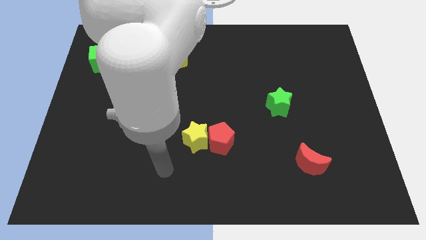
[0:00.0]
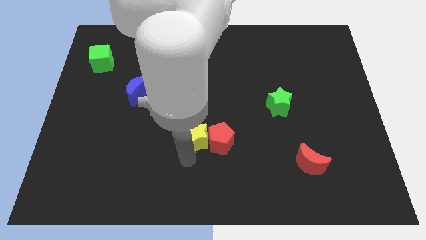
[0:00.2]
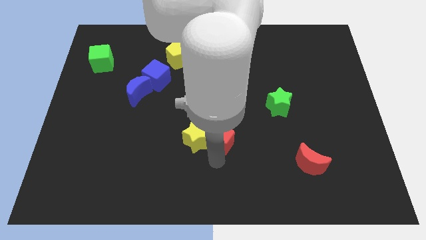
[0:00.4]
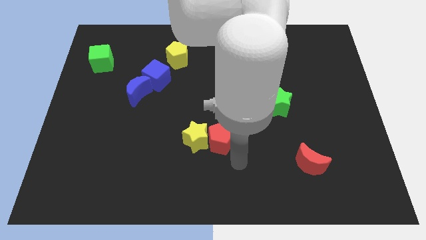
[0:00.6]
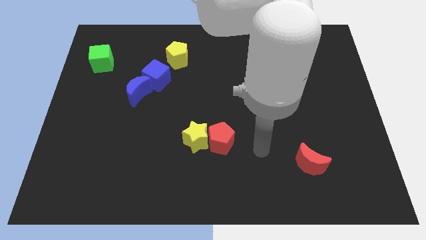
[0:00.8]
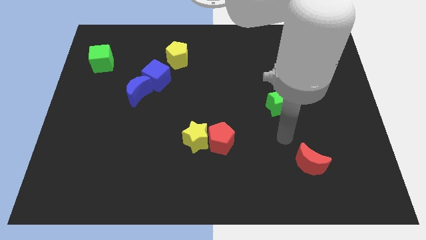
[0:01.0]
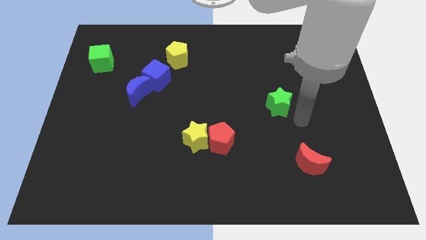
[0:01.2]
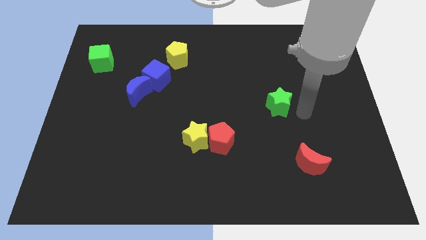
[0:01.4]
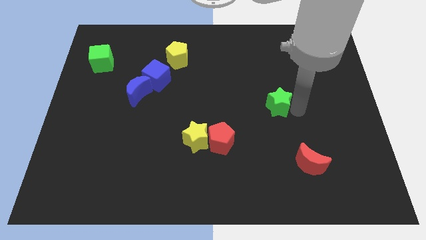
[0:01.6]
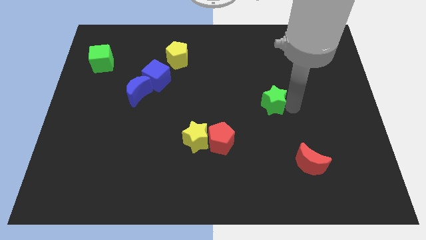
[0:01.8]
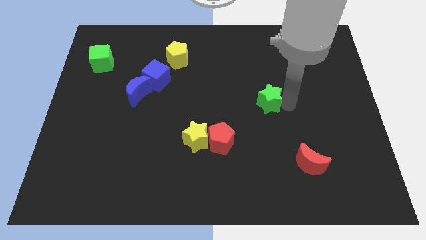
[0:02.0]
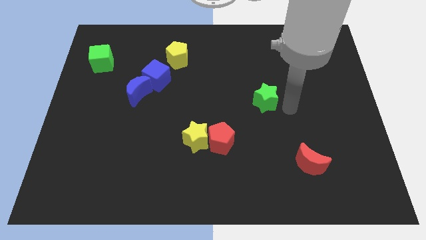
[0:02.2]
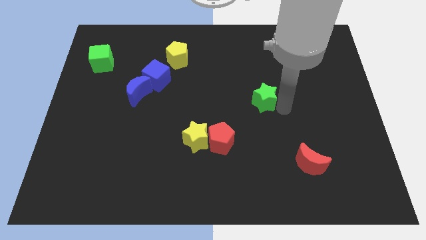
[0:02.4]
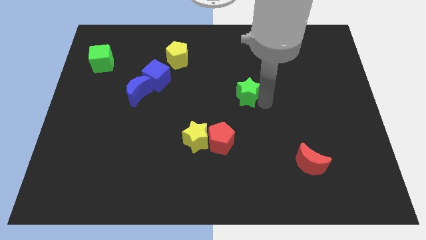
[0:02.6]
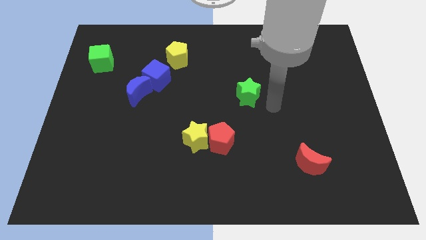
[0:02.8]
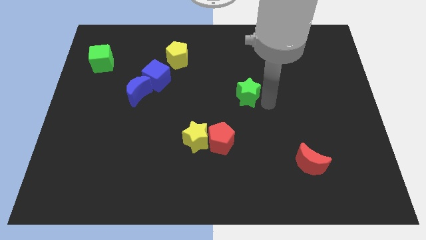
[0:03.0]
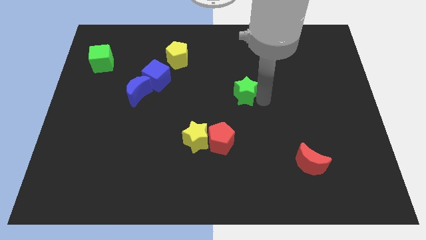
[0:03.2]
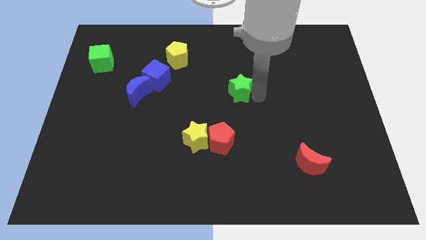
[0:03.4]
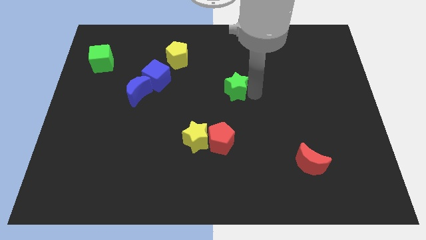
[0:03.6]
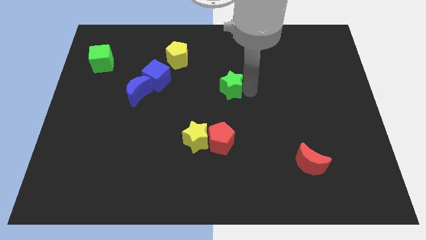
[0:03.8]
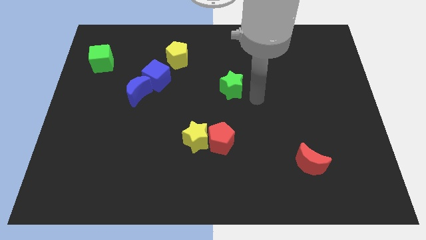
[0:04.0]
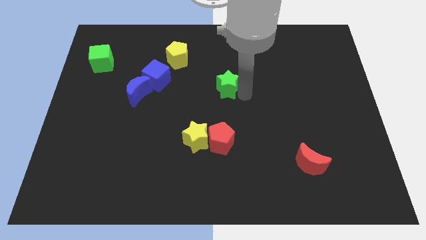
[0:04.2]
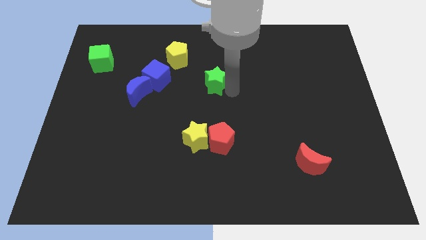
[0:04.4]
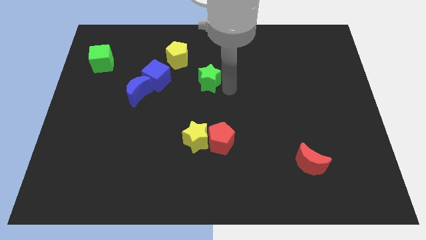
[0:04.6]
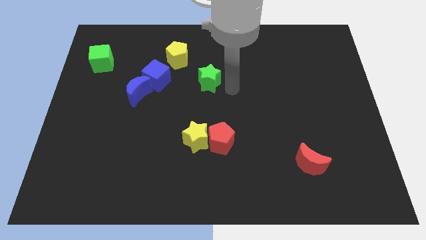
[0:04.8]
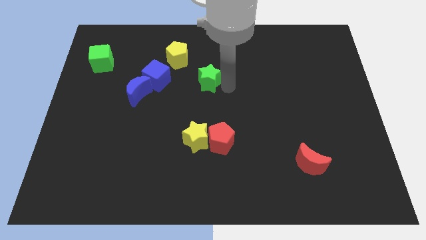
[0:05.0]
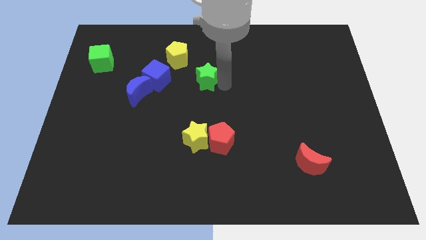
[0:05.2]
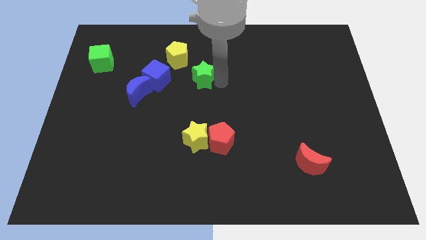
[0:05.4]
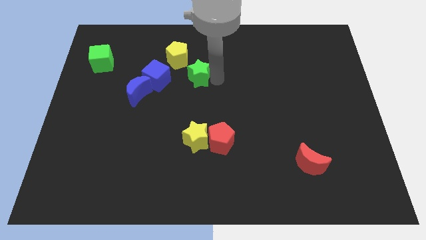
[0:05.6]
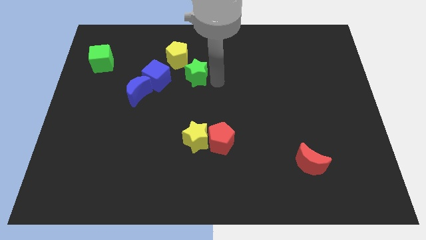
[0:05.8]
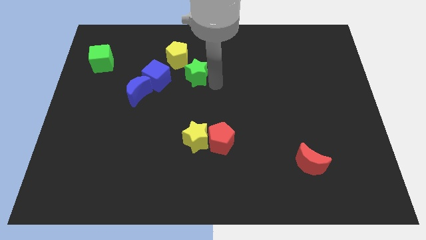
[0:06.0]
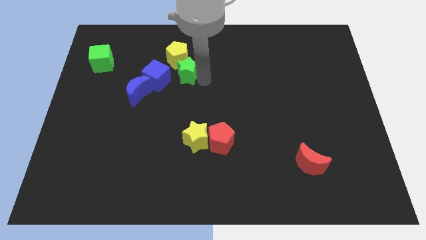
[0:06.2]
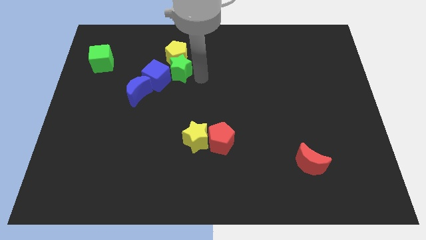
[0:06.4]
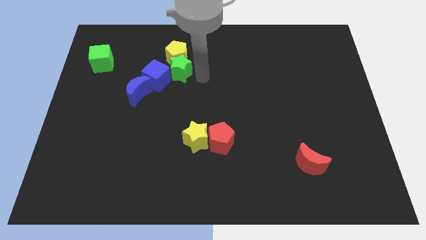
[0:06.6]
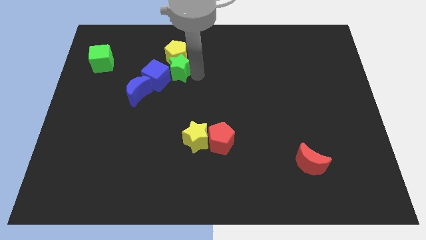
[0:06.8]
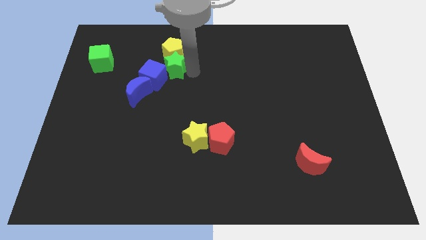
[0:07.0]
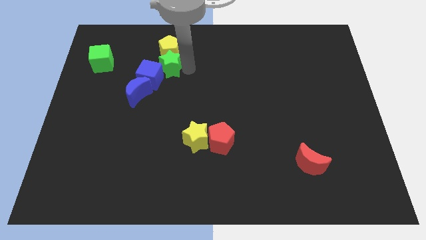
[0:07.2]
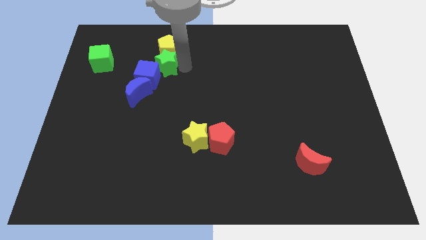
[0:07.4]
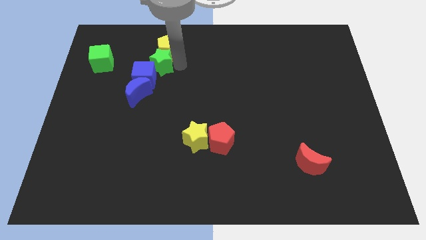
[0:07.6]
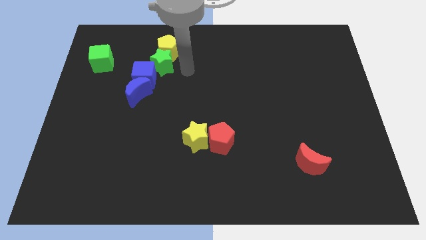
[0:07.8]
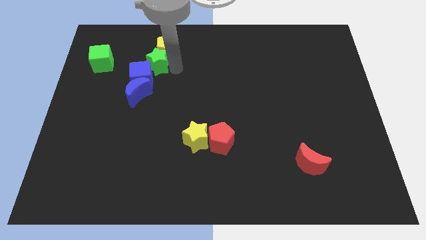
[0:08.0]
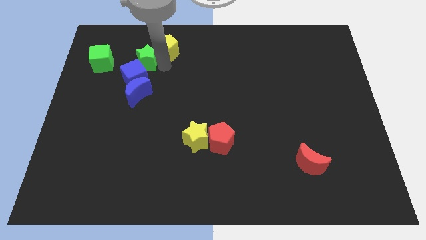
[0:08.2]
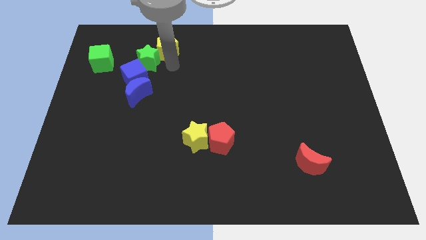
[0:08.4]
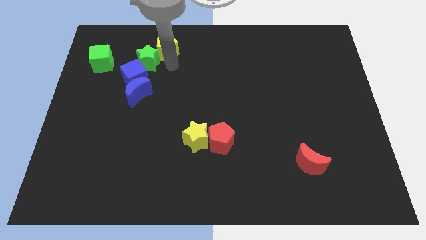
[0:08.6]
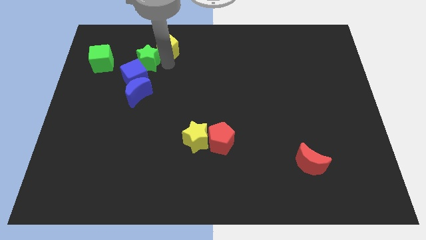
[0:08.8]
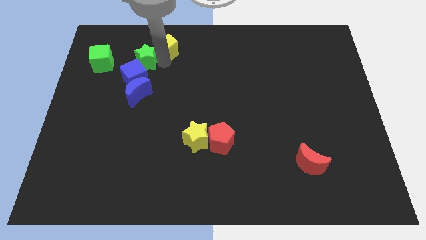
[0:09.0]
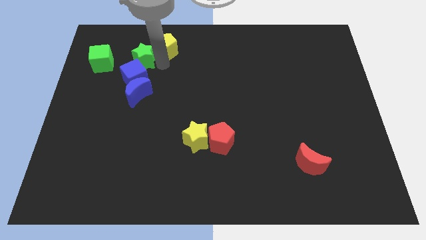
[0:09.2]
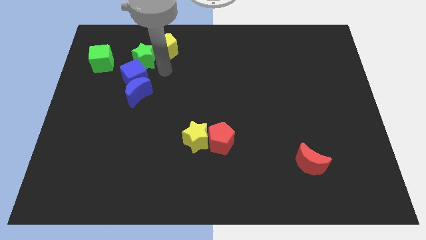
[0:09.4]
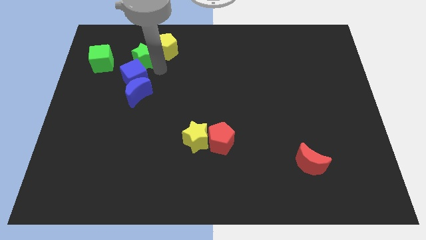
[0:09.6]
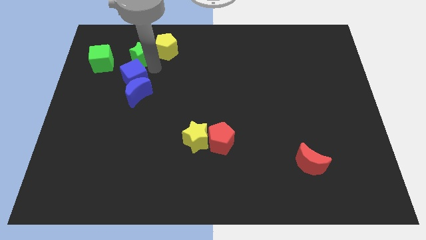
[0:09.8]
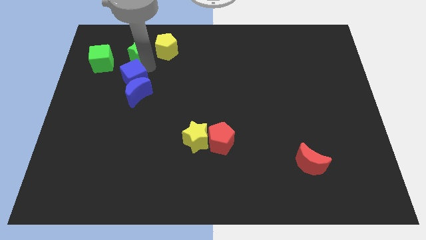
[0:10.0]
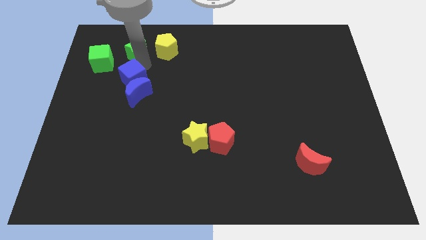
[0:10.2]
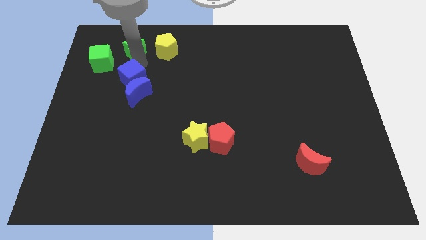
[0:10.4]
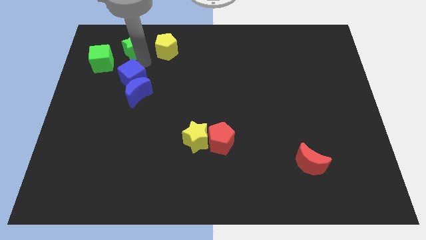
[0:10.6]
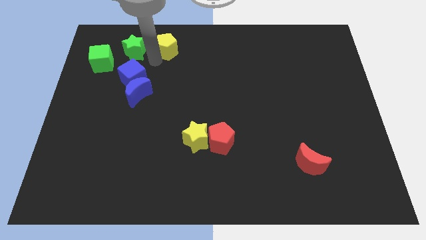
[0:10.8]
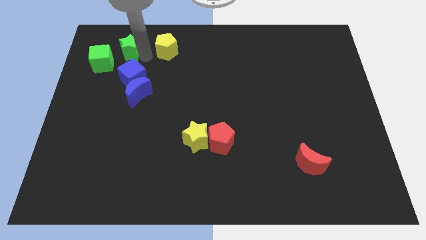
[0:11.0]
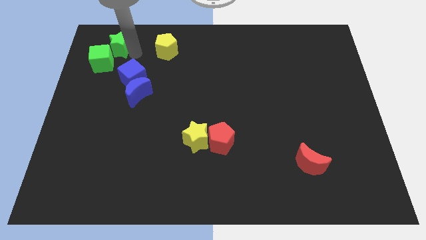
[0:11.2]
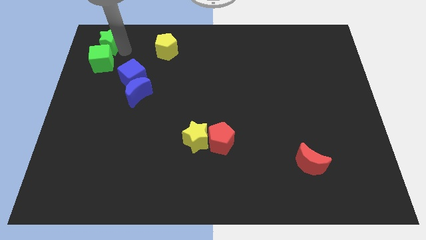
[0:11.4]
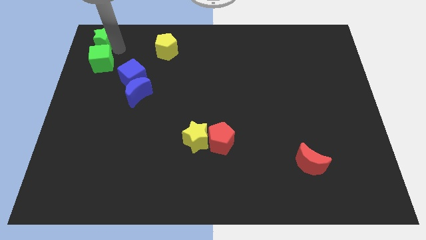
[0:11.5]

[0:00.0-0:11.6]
move the green star to the top left of the board

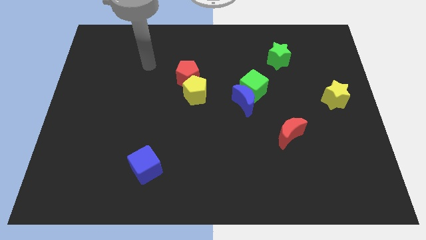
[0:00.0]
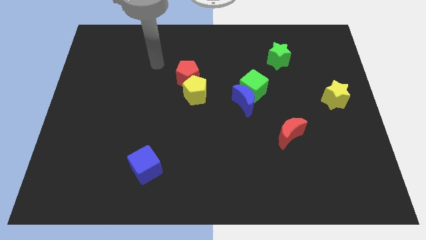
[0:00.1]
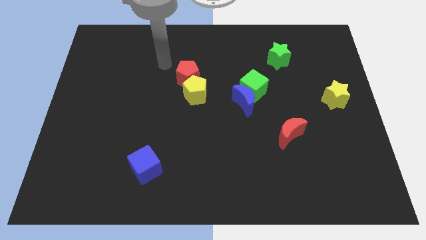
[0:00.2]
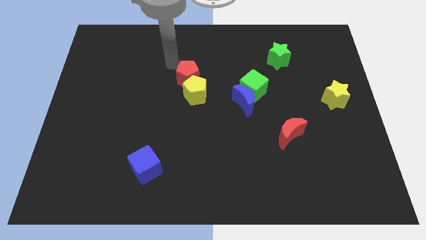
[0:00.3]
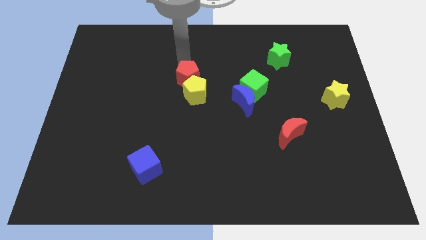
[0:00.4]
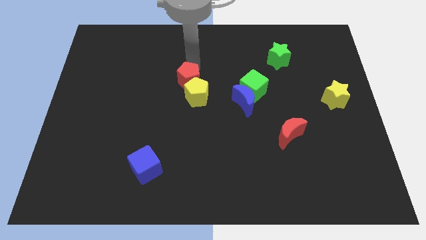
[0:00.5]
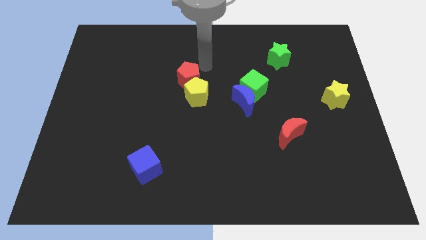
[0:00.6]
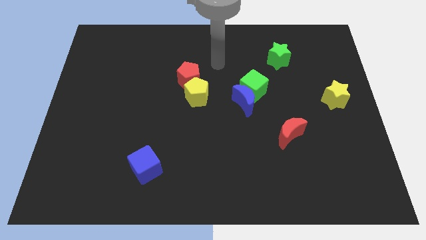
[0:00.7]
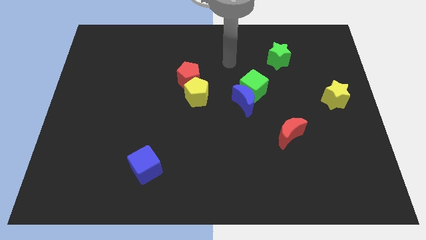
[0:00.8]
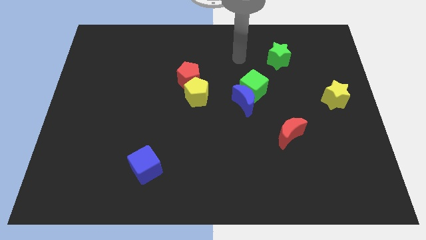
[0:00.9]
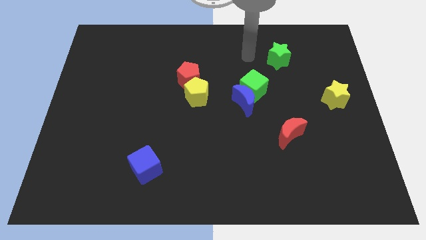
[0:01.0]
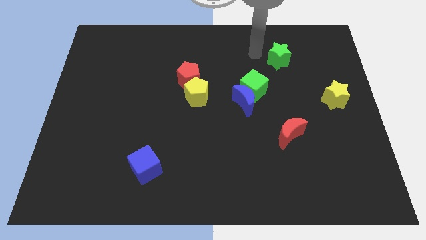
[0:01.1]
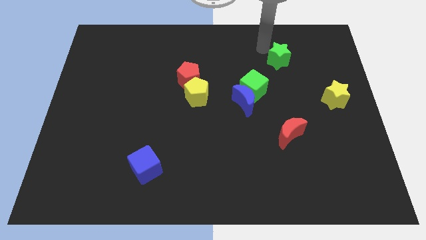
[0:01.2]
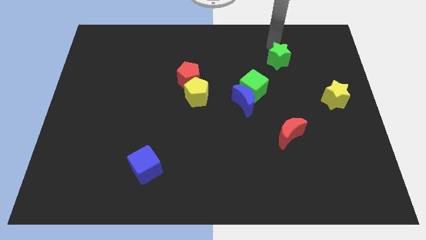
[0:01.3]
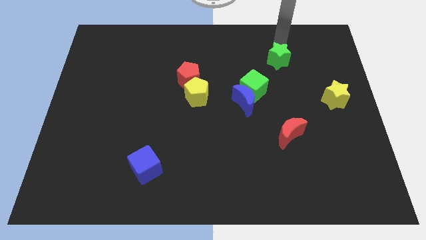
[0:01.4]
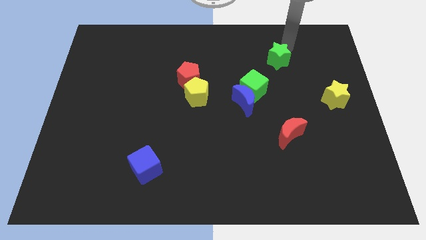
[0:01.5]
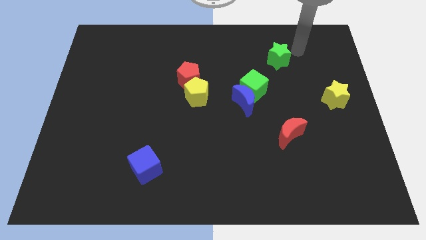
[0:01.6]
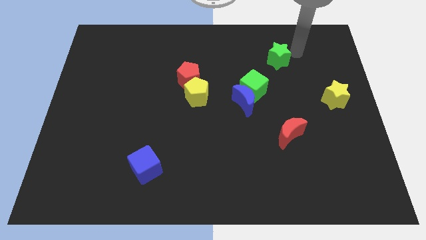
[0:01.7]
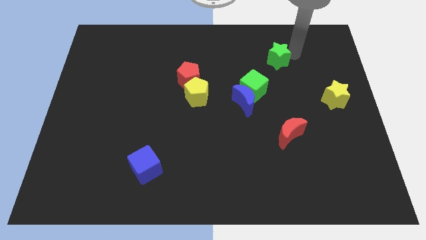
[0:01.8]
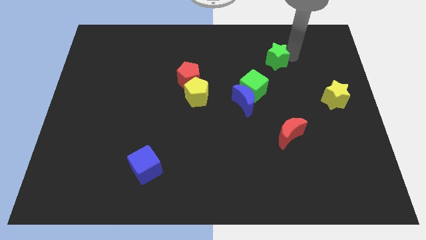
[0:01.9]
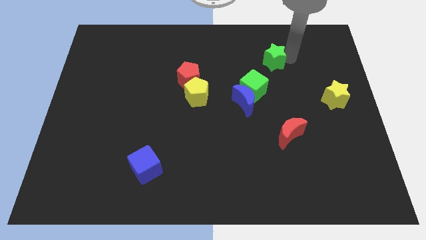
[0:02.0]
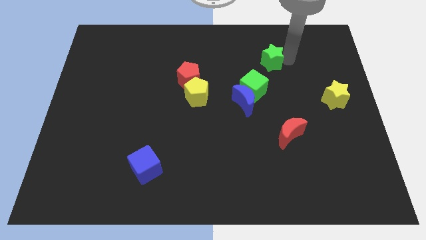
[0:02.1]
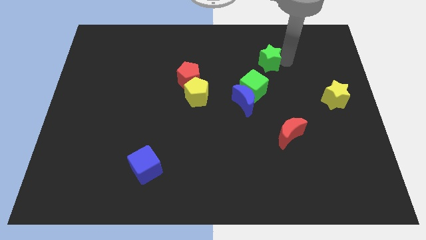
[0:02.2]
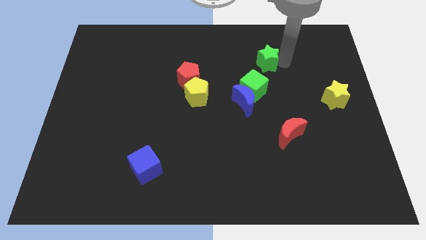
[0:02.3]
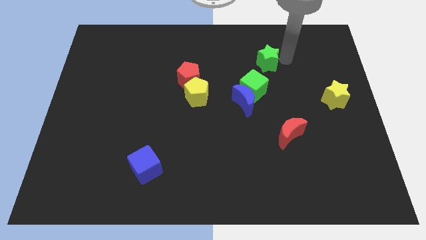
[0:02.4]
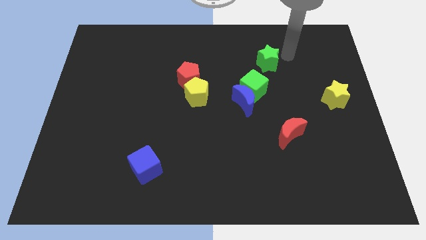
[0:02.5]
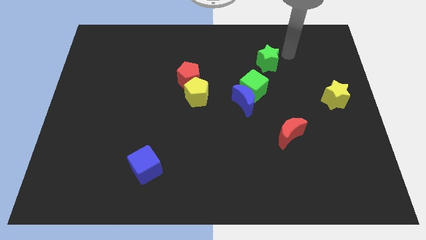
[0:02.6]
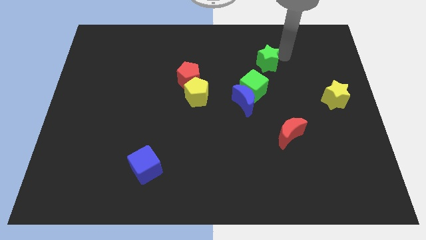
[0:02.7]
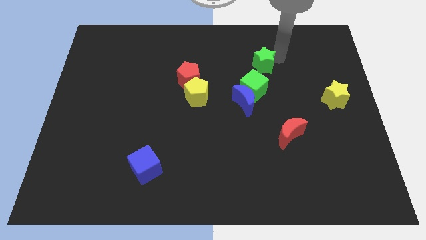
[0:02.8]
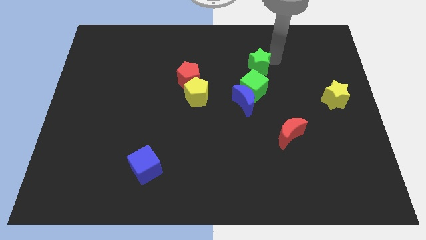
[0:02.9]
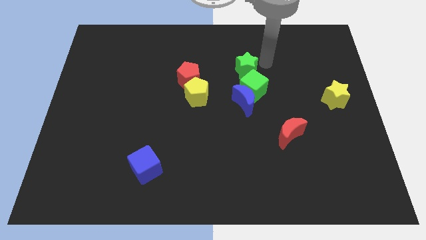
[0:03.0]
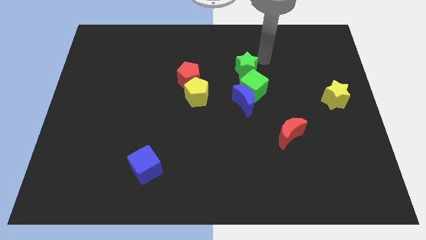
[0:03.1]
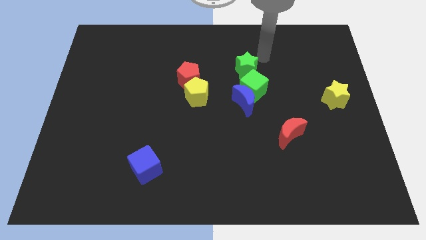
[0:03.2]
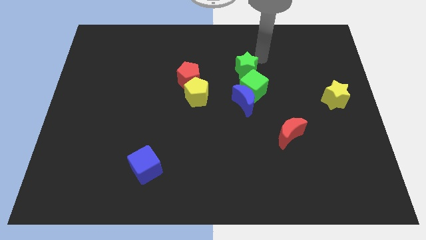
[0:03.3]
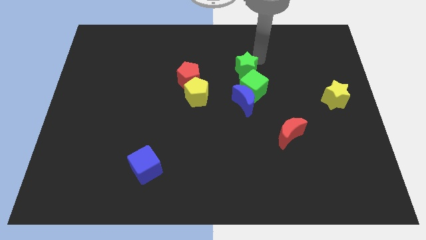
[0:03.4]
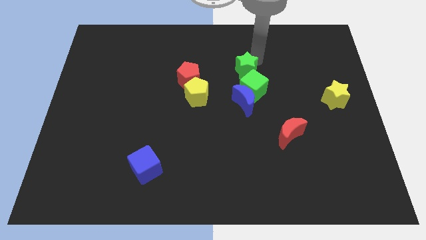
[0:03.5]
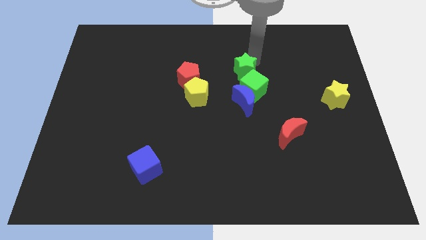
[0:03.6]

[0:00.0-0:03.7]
put the green star to the middle
